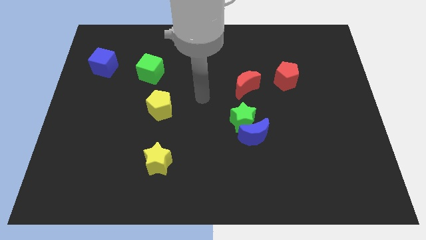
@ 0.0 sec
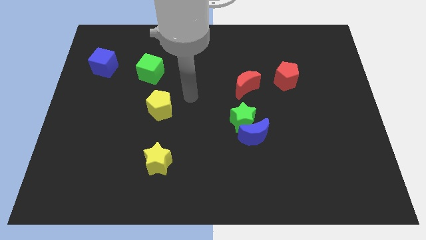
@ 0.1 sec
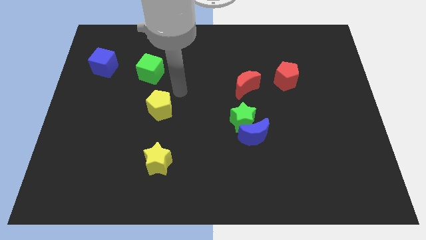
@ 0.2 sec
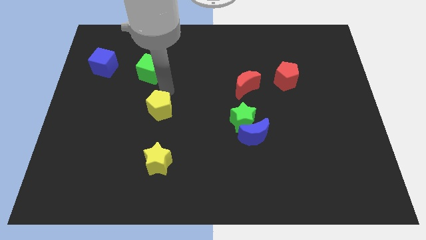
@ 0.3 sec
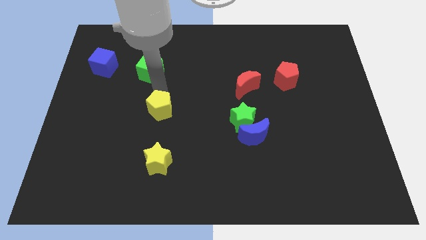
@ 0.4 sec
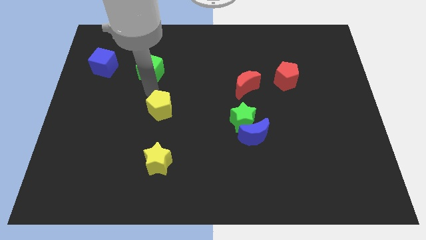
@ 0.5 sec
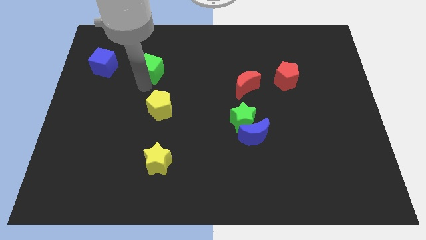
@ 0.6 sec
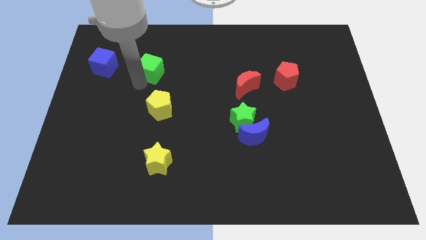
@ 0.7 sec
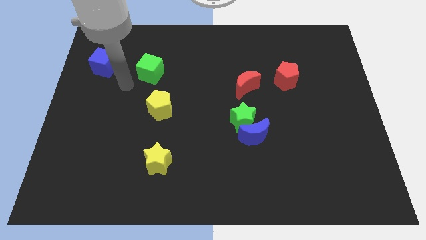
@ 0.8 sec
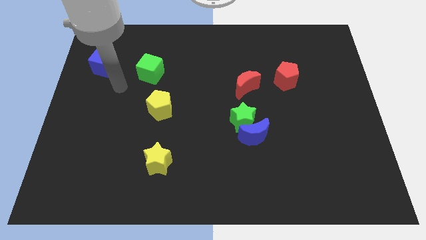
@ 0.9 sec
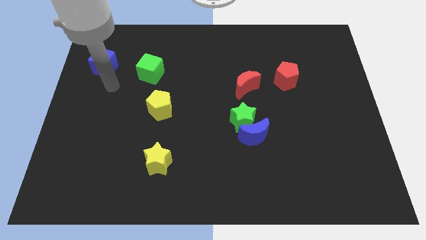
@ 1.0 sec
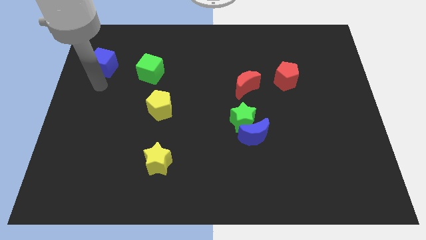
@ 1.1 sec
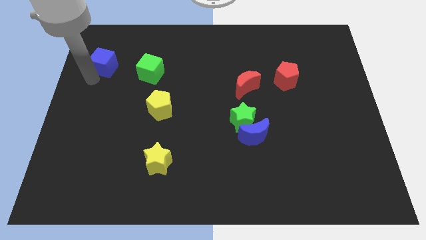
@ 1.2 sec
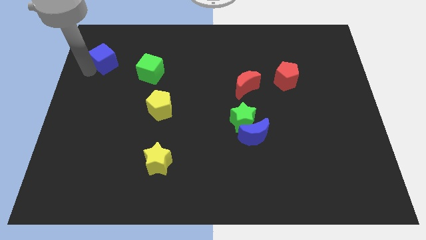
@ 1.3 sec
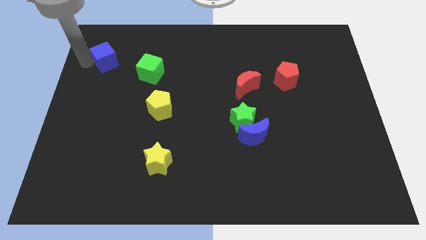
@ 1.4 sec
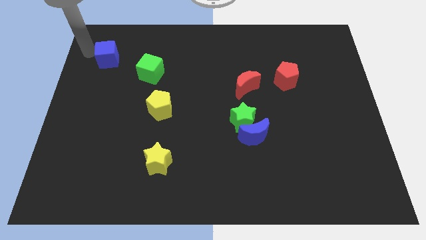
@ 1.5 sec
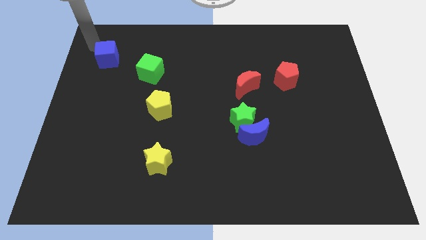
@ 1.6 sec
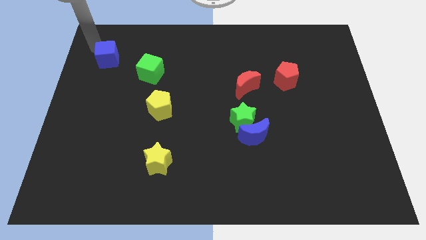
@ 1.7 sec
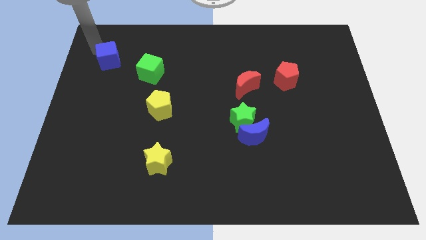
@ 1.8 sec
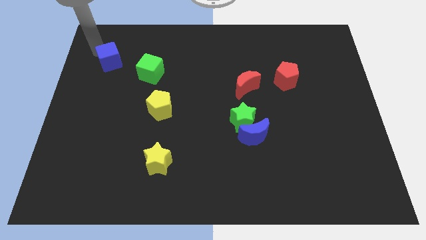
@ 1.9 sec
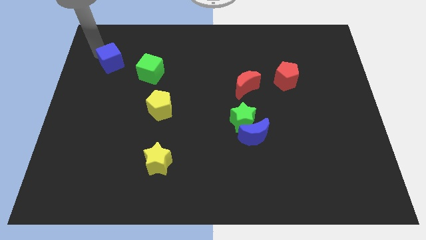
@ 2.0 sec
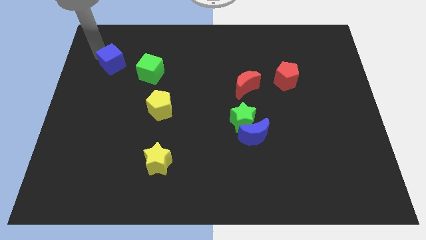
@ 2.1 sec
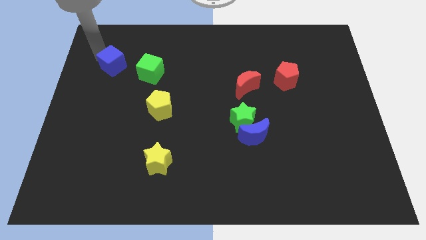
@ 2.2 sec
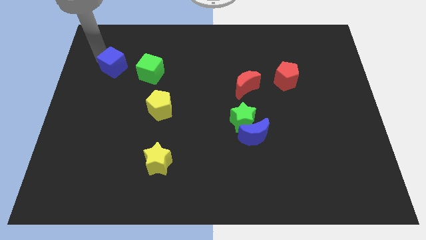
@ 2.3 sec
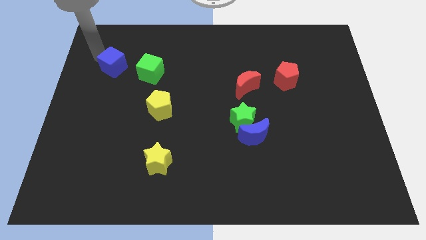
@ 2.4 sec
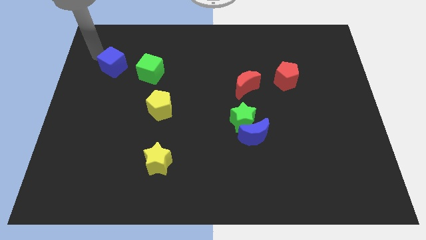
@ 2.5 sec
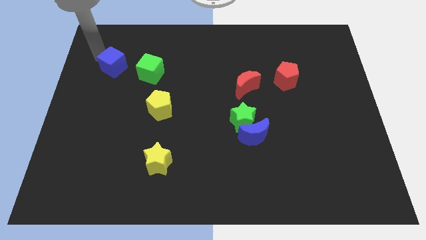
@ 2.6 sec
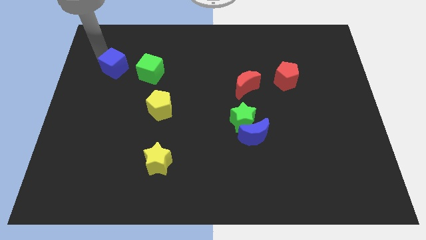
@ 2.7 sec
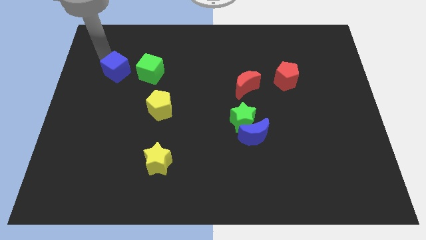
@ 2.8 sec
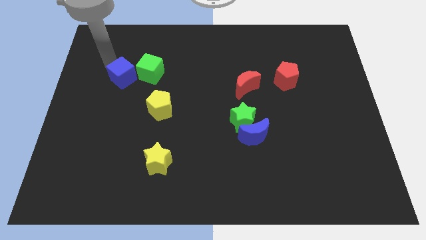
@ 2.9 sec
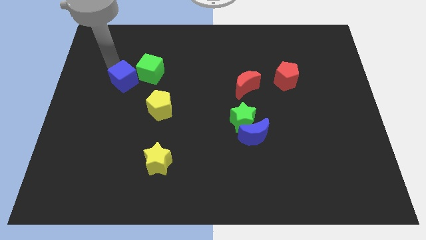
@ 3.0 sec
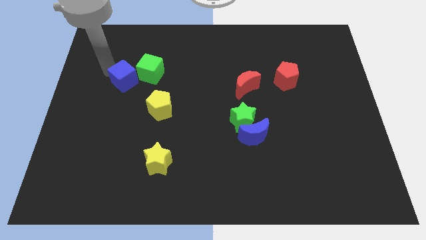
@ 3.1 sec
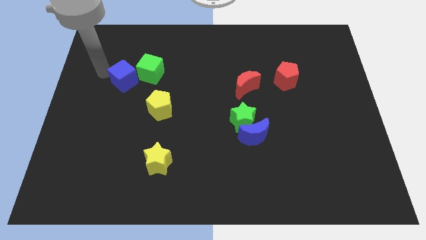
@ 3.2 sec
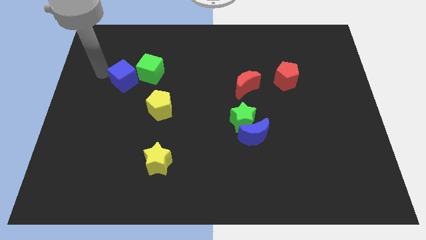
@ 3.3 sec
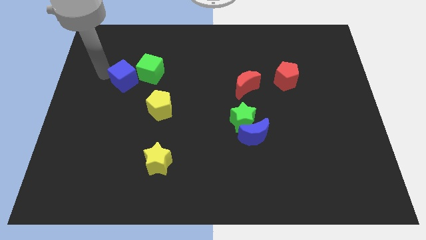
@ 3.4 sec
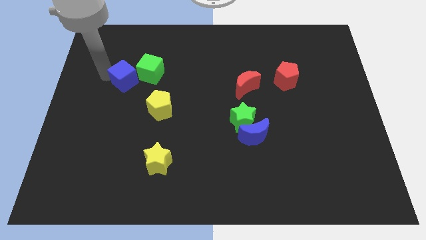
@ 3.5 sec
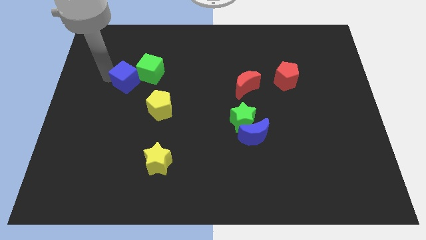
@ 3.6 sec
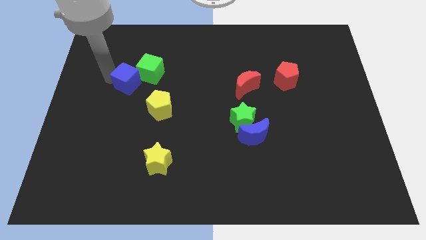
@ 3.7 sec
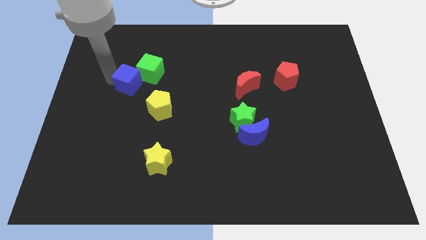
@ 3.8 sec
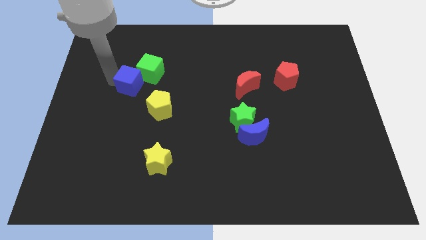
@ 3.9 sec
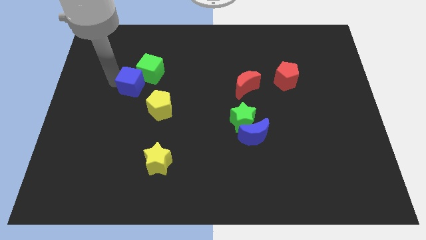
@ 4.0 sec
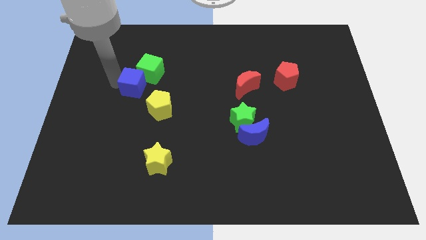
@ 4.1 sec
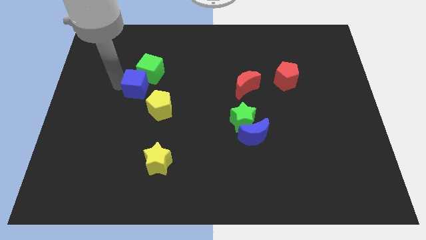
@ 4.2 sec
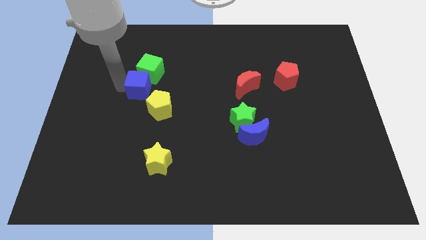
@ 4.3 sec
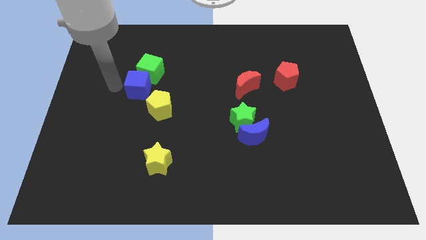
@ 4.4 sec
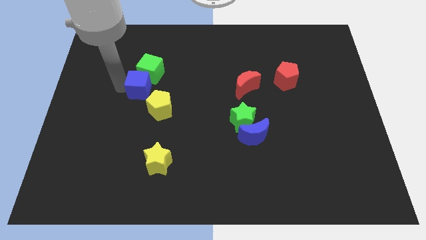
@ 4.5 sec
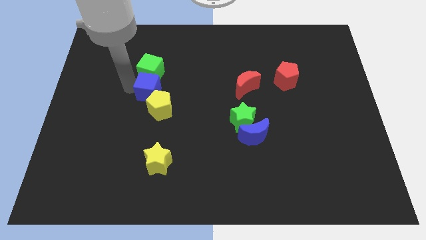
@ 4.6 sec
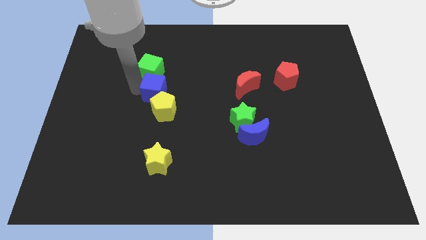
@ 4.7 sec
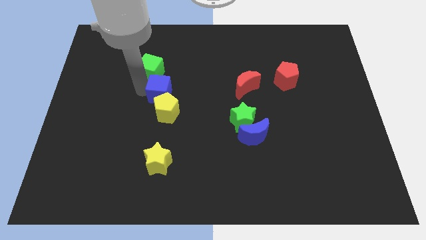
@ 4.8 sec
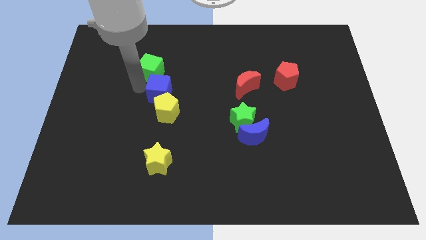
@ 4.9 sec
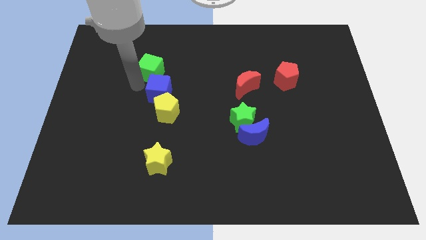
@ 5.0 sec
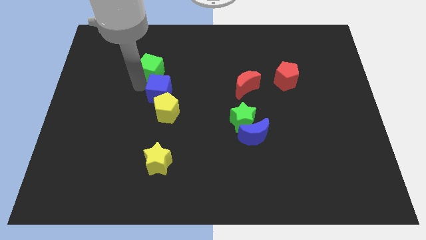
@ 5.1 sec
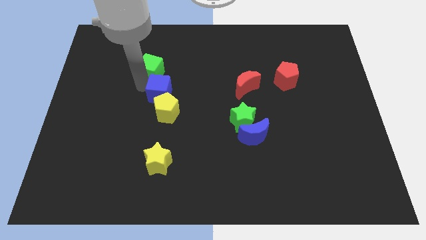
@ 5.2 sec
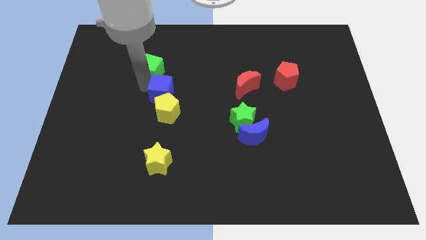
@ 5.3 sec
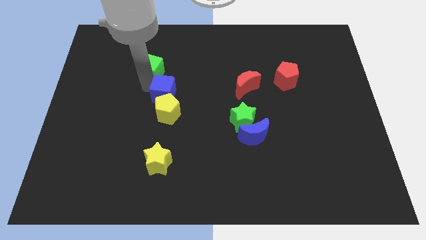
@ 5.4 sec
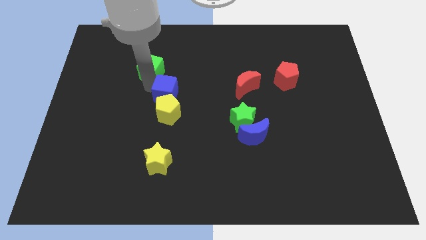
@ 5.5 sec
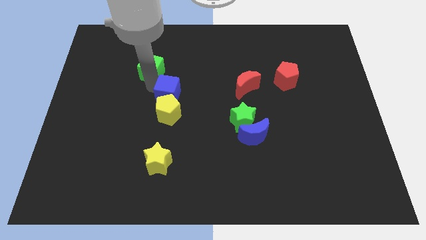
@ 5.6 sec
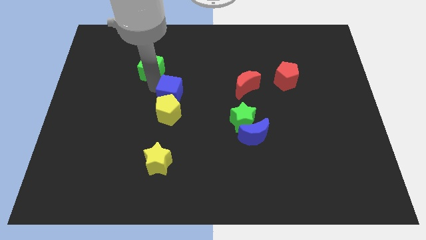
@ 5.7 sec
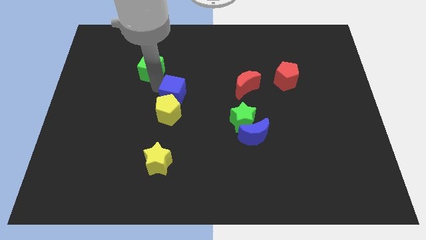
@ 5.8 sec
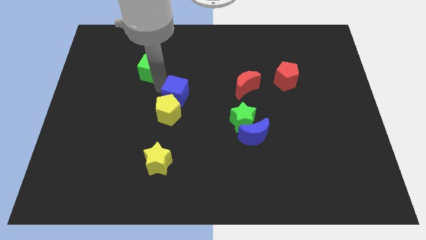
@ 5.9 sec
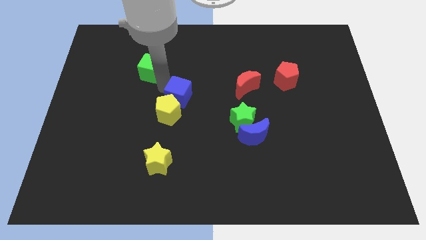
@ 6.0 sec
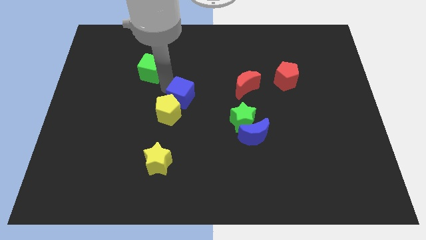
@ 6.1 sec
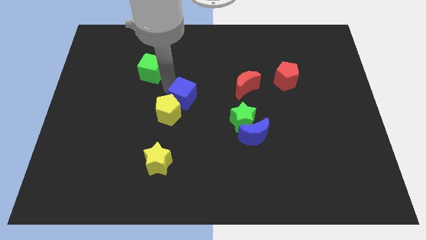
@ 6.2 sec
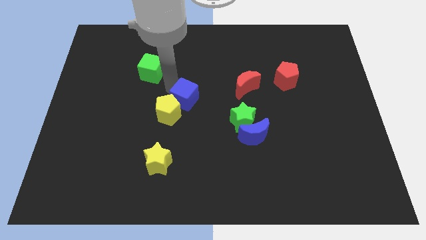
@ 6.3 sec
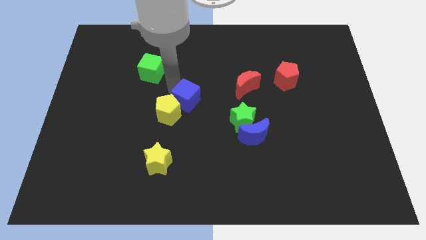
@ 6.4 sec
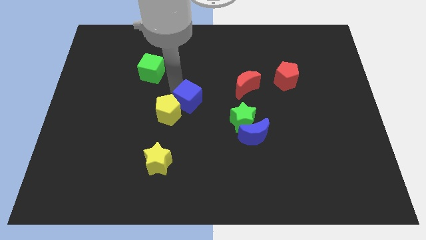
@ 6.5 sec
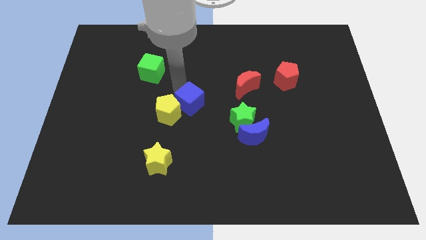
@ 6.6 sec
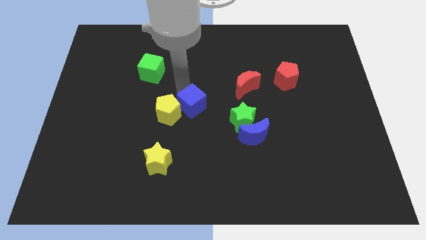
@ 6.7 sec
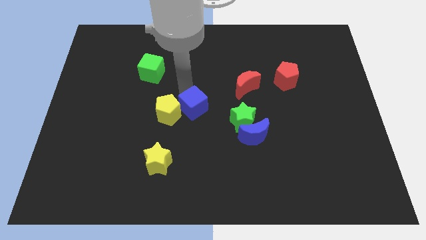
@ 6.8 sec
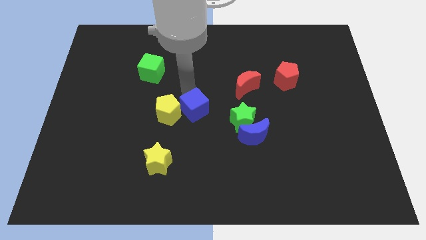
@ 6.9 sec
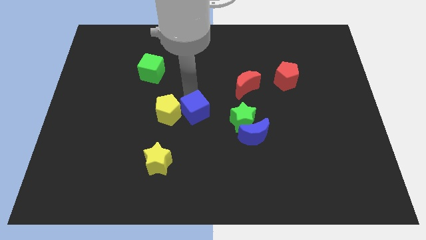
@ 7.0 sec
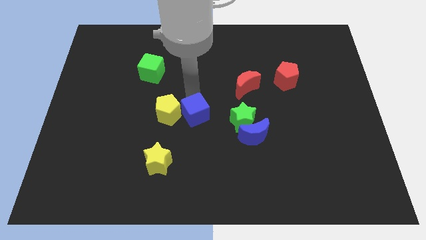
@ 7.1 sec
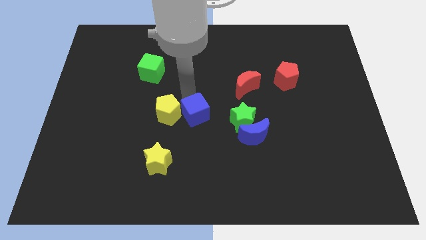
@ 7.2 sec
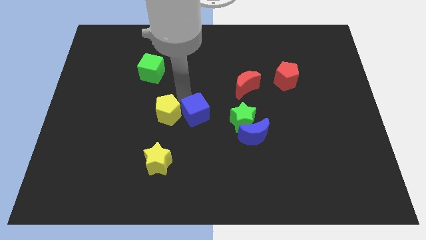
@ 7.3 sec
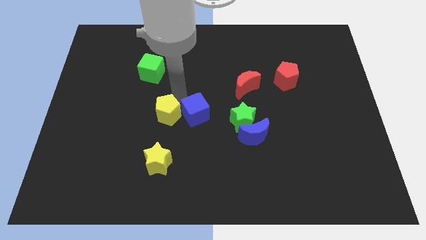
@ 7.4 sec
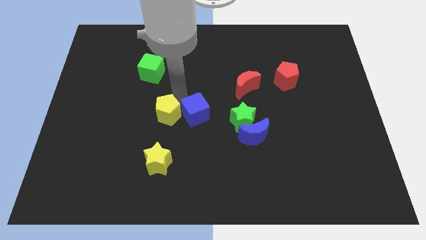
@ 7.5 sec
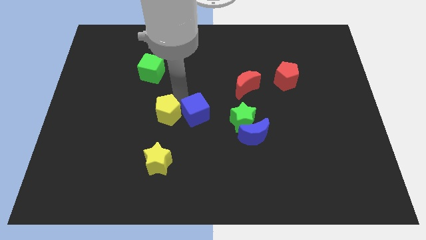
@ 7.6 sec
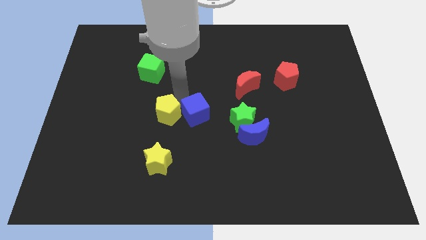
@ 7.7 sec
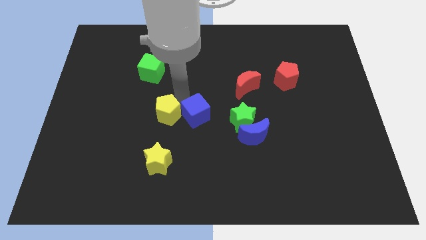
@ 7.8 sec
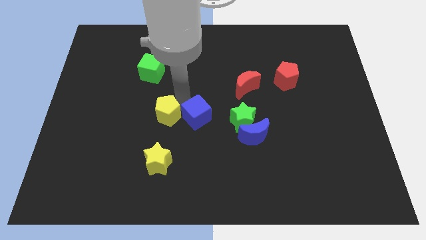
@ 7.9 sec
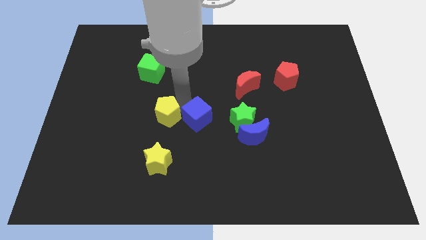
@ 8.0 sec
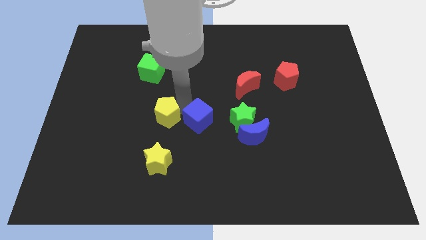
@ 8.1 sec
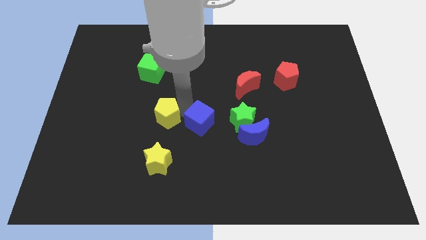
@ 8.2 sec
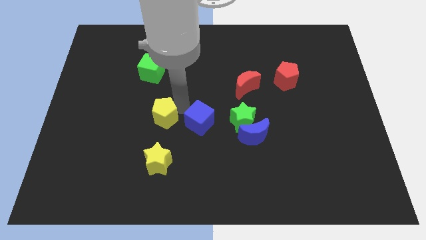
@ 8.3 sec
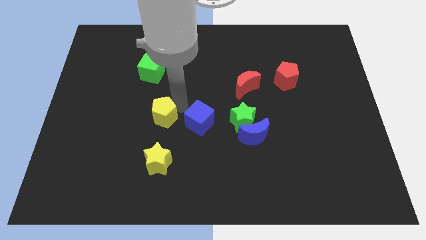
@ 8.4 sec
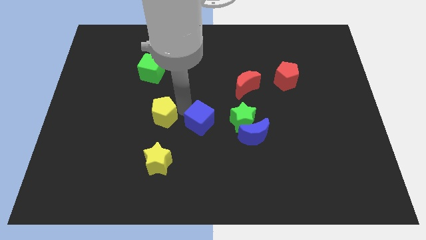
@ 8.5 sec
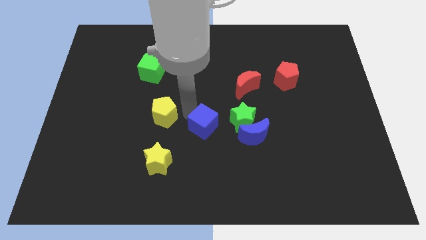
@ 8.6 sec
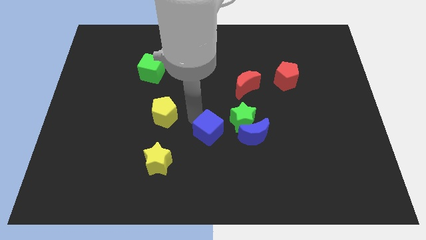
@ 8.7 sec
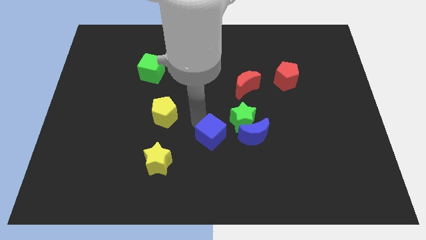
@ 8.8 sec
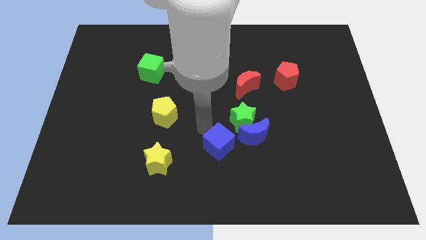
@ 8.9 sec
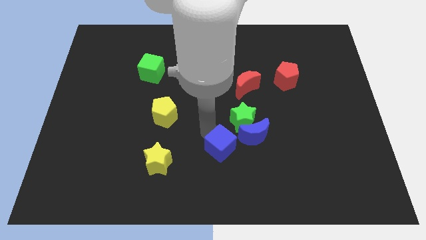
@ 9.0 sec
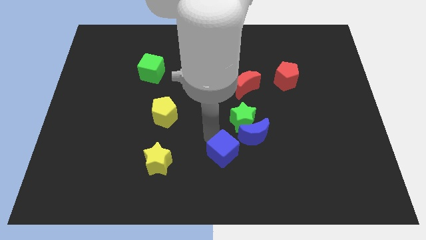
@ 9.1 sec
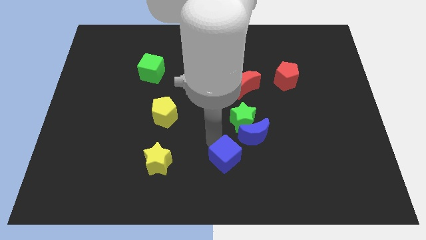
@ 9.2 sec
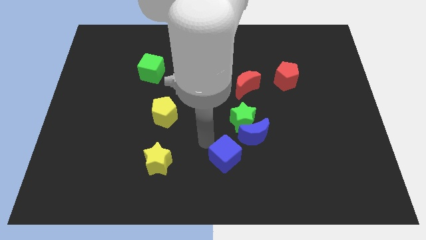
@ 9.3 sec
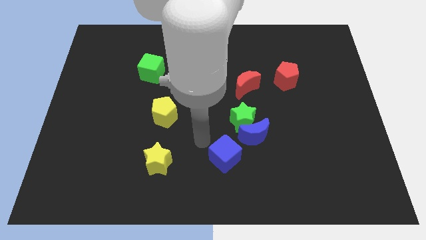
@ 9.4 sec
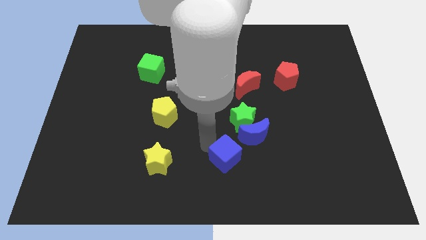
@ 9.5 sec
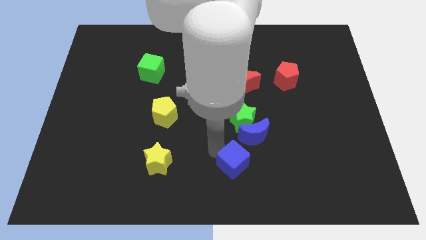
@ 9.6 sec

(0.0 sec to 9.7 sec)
slide the blue cube to the bottom side of the blue moon
